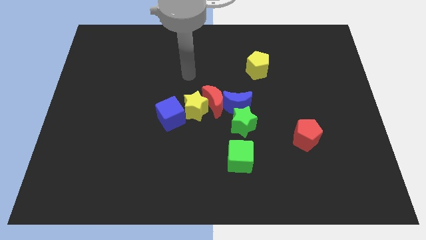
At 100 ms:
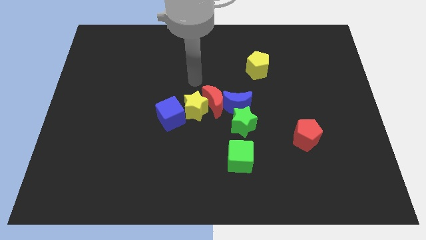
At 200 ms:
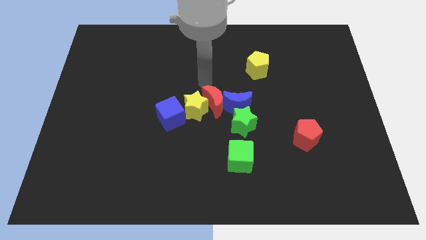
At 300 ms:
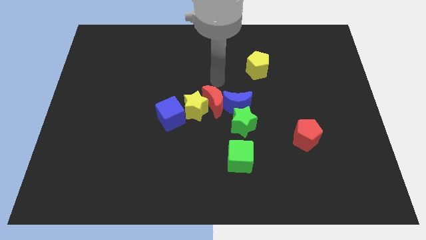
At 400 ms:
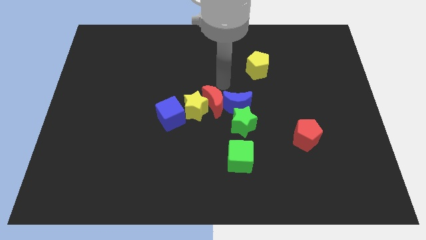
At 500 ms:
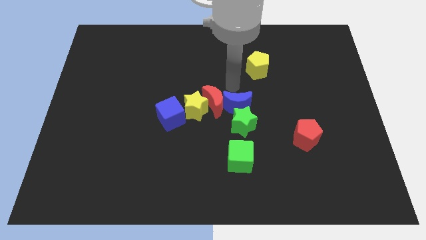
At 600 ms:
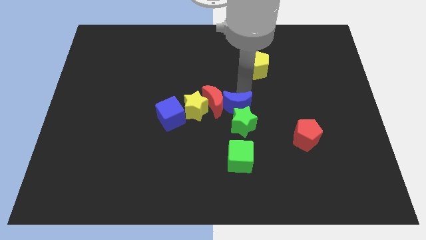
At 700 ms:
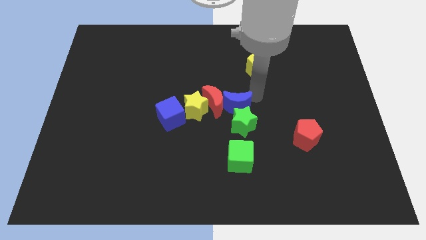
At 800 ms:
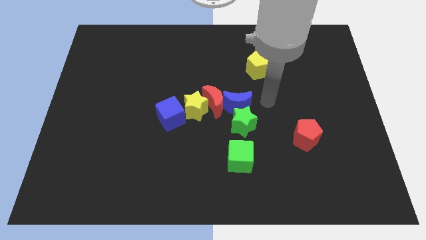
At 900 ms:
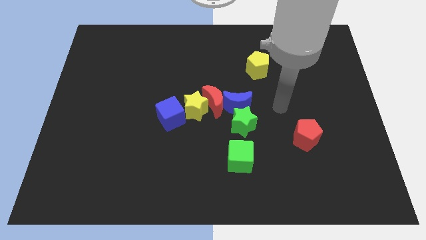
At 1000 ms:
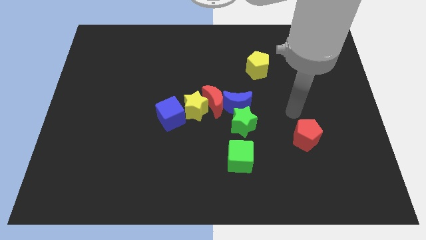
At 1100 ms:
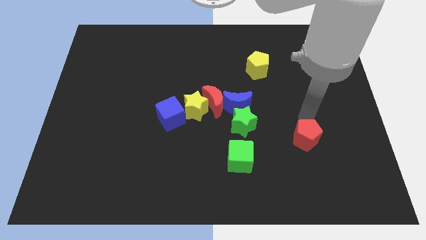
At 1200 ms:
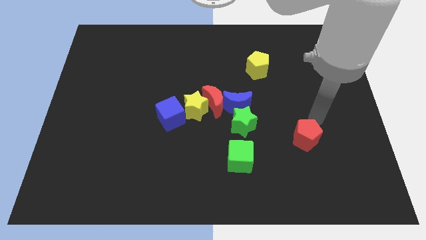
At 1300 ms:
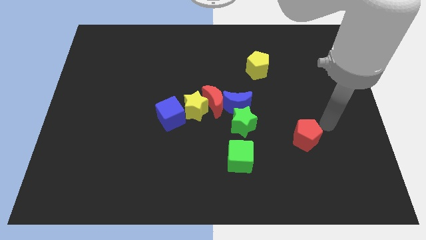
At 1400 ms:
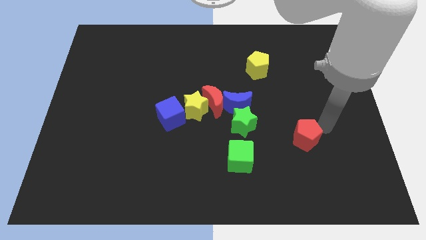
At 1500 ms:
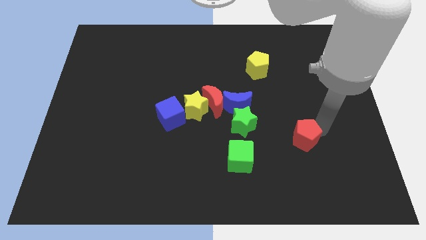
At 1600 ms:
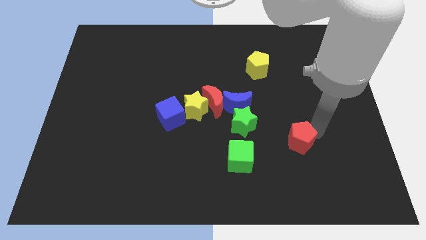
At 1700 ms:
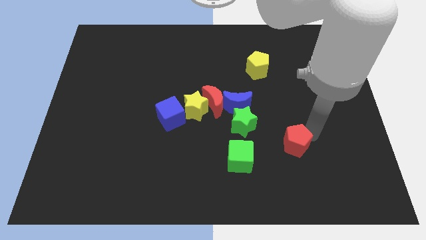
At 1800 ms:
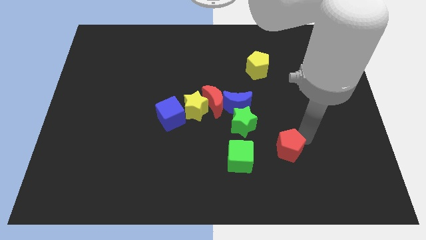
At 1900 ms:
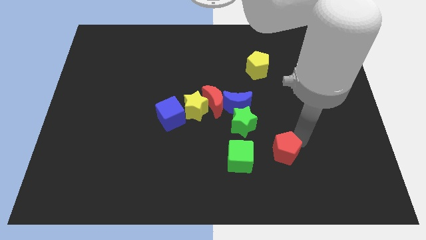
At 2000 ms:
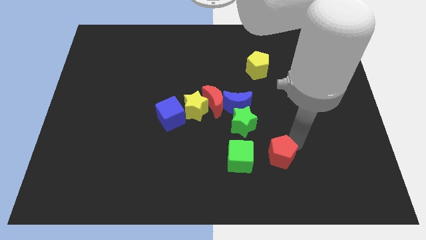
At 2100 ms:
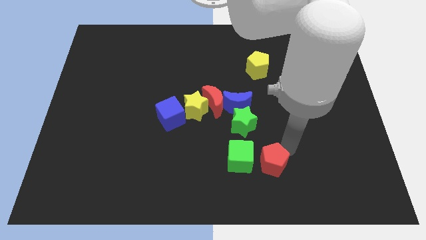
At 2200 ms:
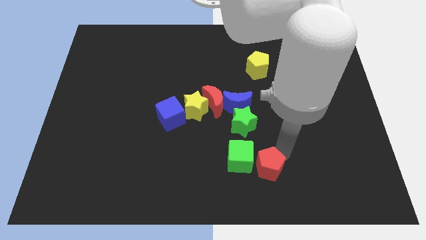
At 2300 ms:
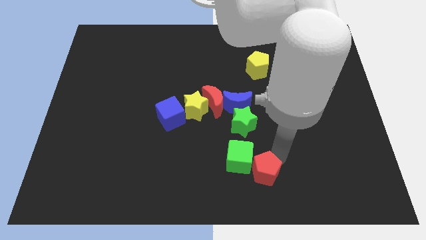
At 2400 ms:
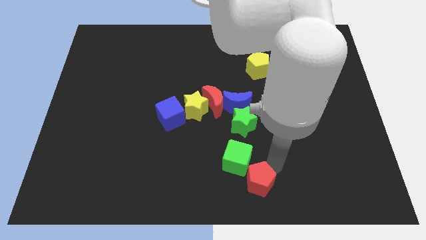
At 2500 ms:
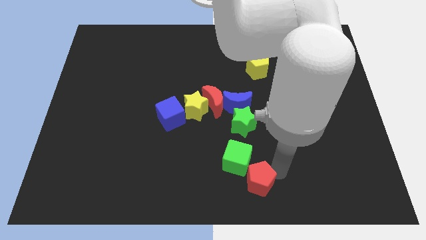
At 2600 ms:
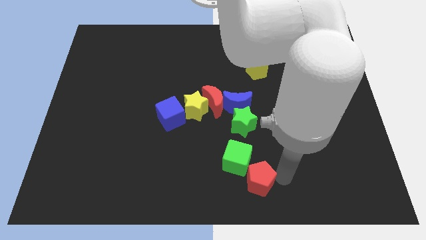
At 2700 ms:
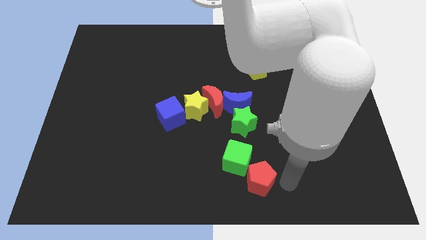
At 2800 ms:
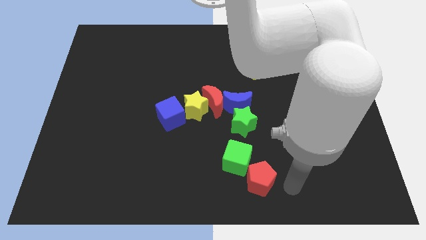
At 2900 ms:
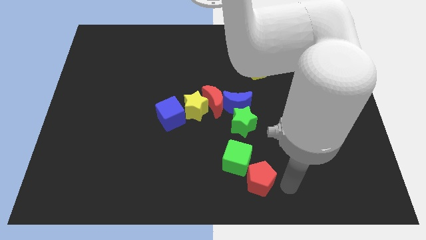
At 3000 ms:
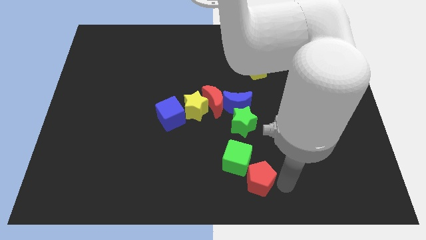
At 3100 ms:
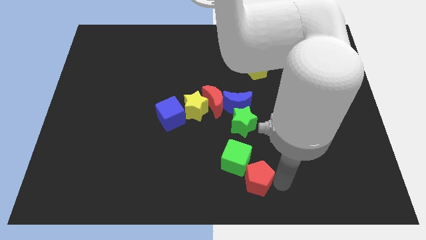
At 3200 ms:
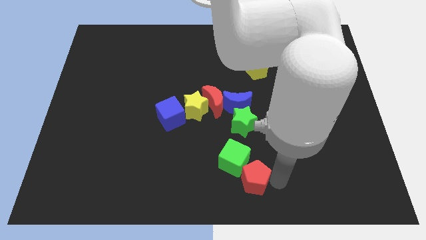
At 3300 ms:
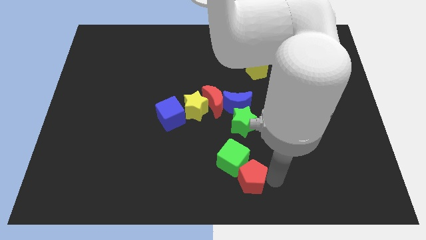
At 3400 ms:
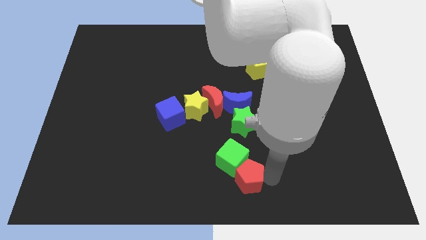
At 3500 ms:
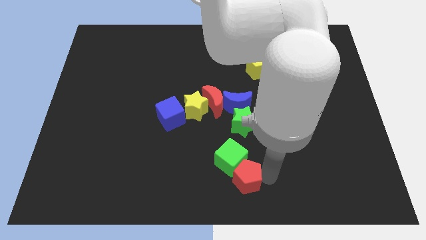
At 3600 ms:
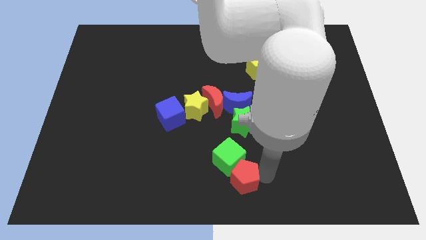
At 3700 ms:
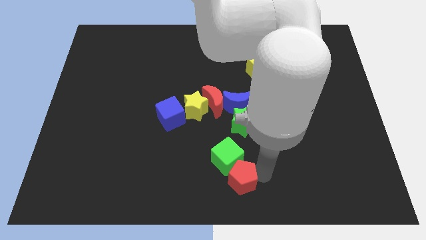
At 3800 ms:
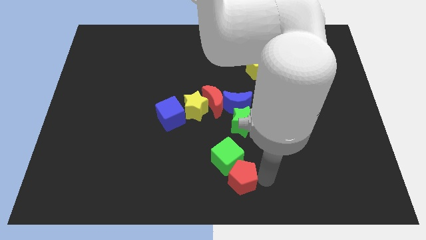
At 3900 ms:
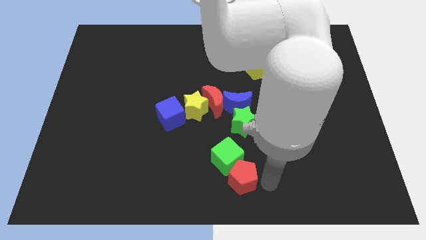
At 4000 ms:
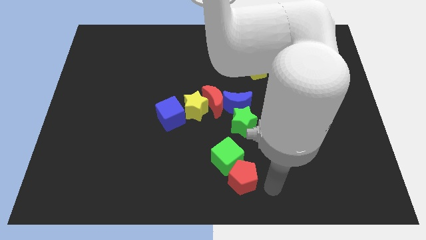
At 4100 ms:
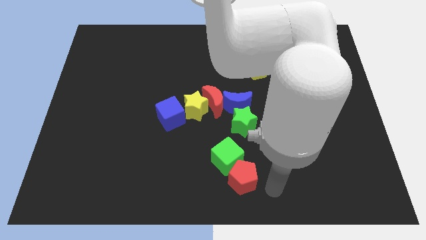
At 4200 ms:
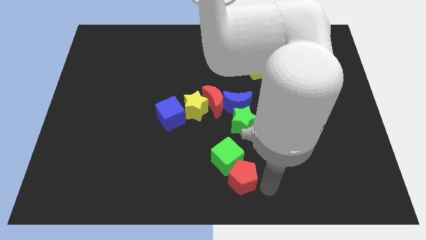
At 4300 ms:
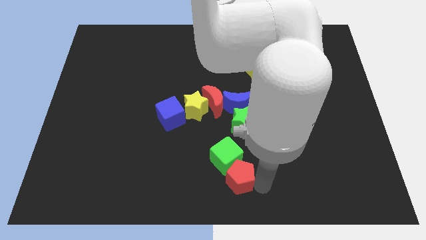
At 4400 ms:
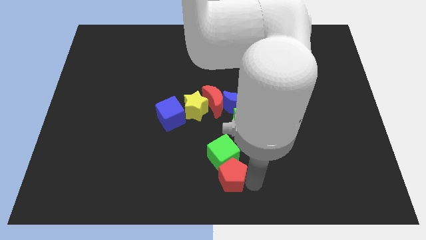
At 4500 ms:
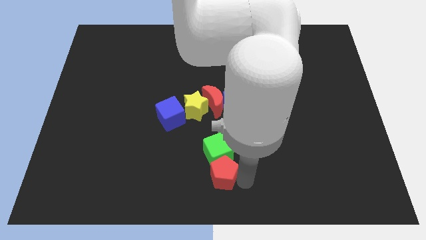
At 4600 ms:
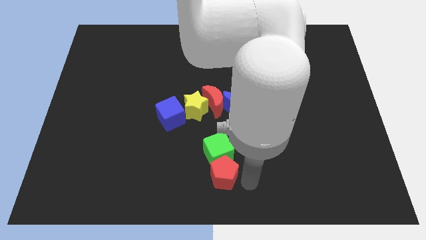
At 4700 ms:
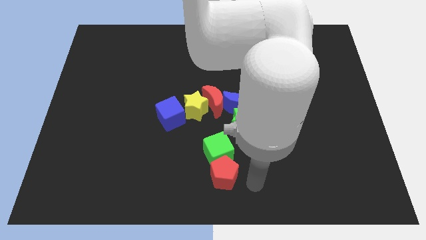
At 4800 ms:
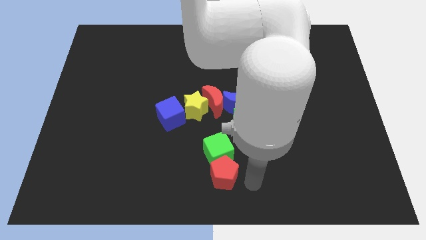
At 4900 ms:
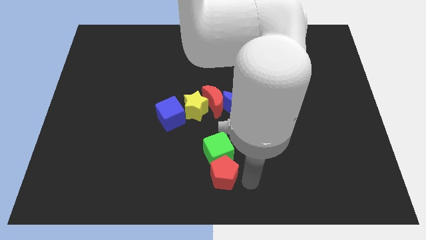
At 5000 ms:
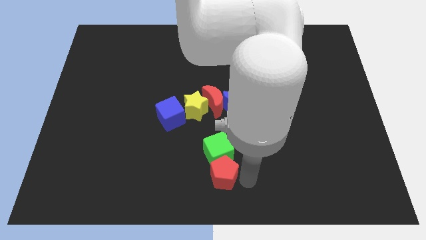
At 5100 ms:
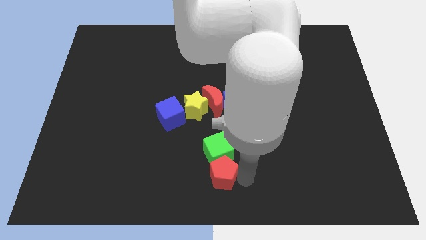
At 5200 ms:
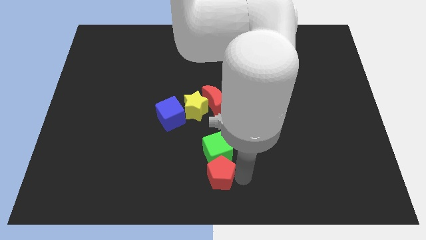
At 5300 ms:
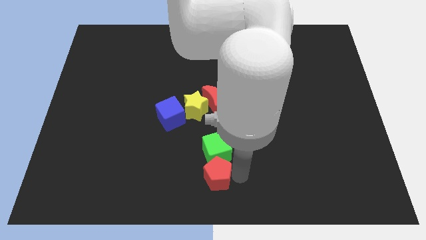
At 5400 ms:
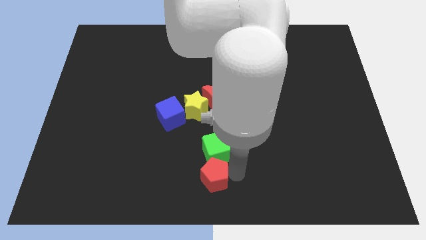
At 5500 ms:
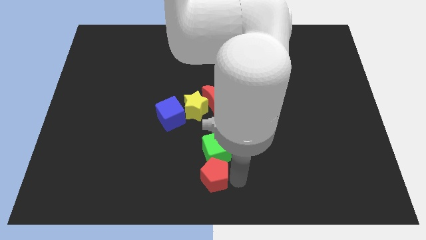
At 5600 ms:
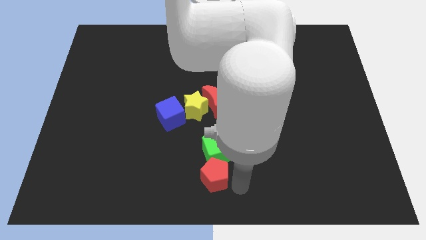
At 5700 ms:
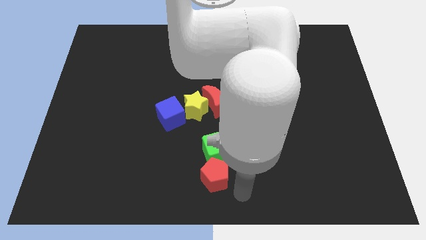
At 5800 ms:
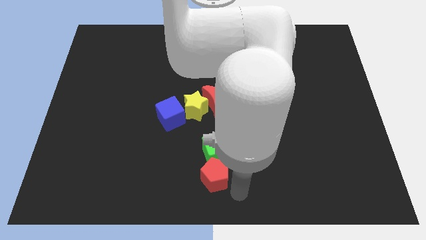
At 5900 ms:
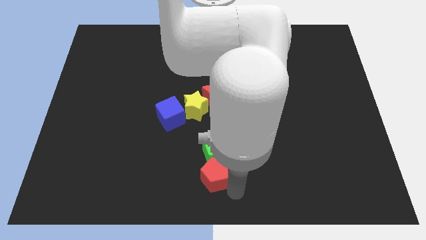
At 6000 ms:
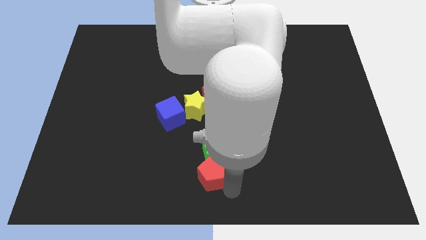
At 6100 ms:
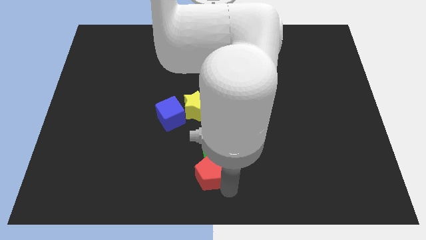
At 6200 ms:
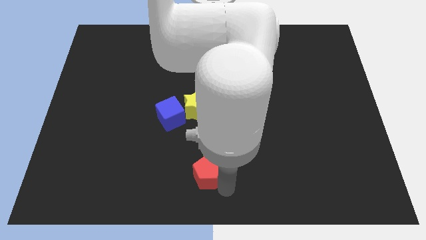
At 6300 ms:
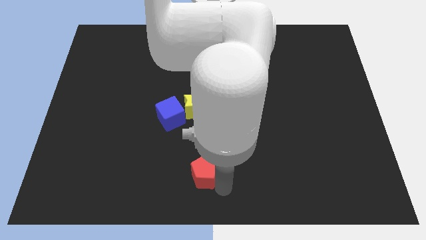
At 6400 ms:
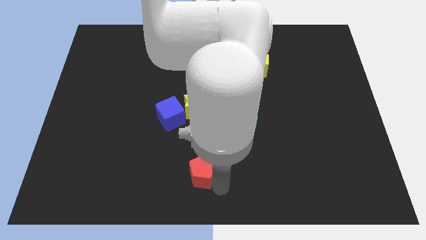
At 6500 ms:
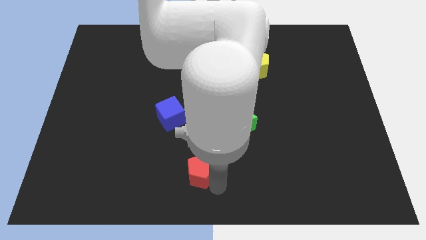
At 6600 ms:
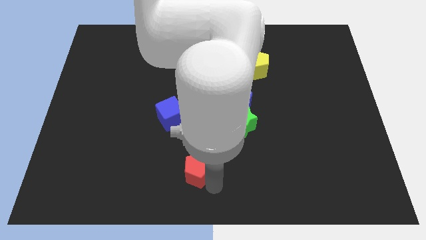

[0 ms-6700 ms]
push the red pentagon left

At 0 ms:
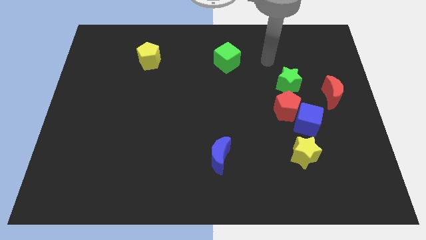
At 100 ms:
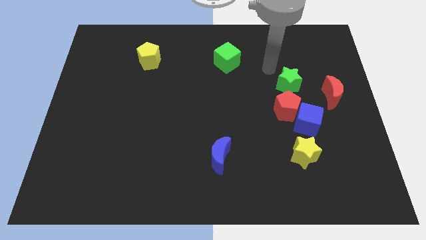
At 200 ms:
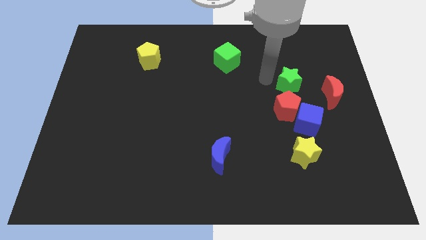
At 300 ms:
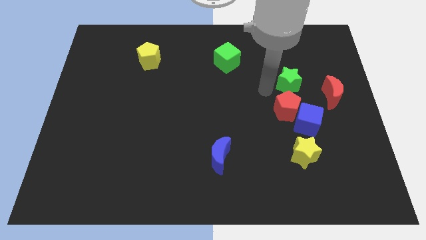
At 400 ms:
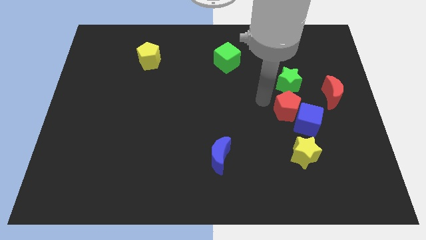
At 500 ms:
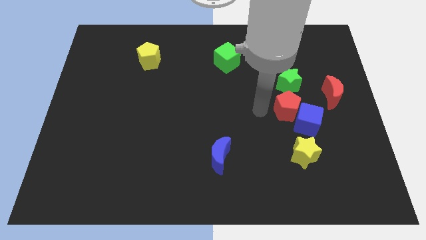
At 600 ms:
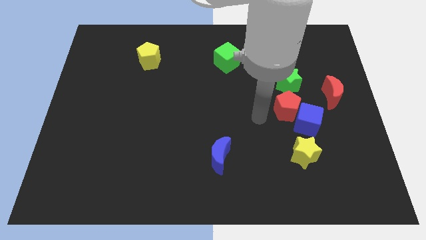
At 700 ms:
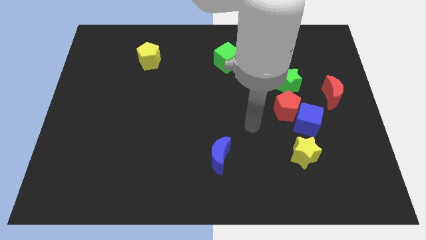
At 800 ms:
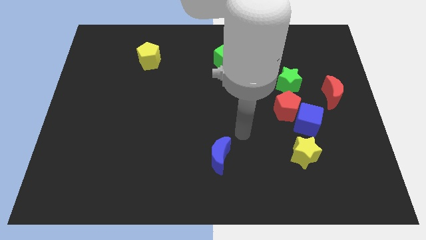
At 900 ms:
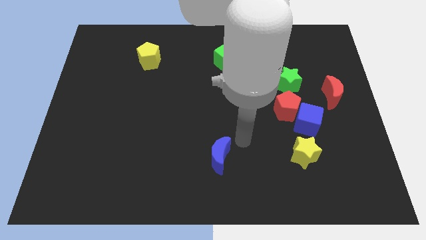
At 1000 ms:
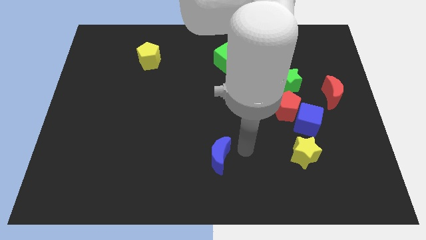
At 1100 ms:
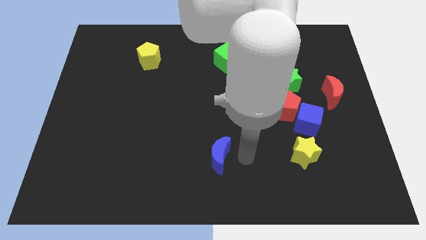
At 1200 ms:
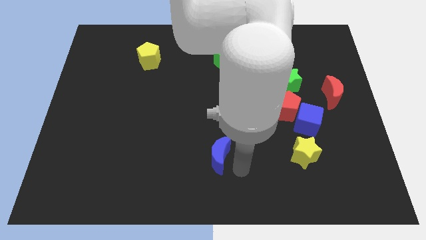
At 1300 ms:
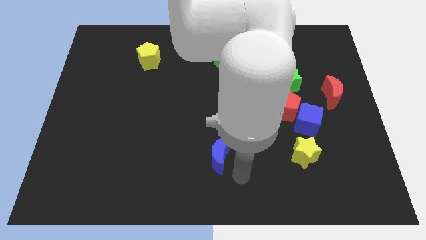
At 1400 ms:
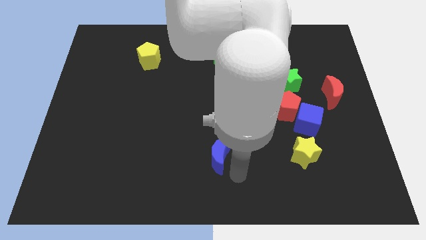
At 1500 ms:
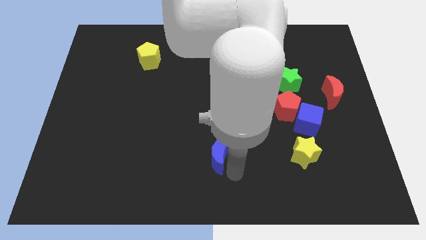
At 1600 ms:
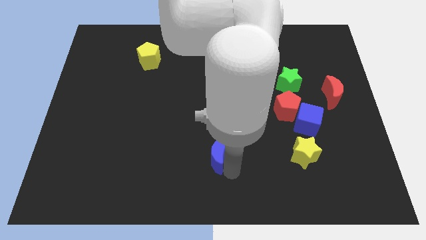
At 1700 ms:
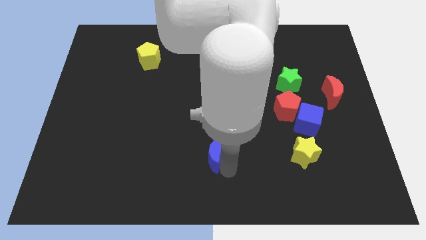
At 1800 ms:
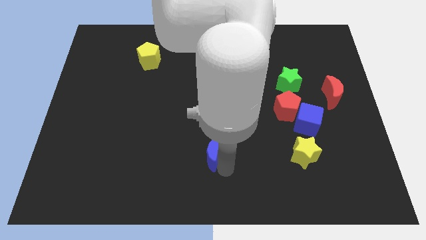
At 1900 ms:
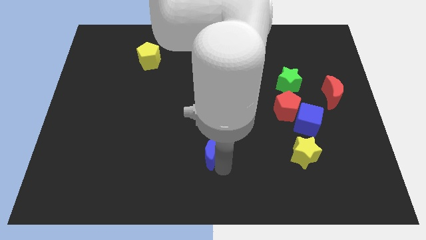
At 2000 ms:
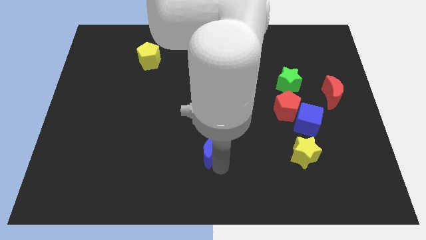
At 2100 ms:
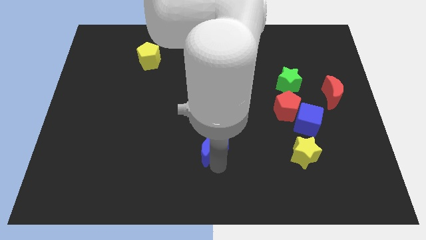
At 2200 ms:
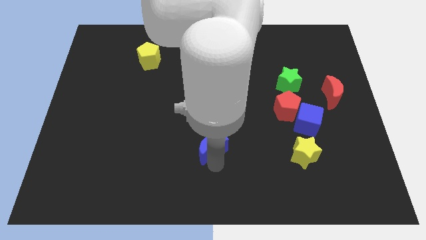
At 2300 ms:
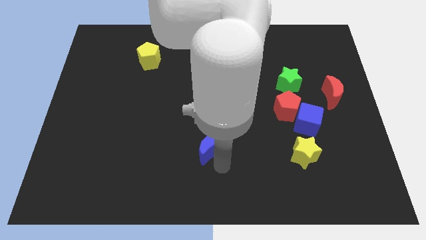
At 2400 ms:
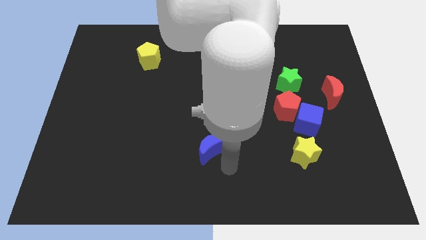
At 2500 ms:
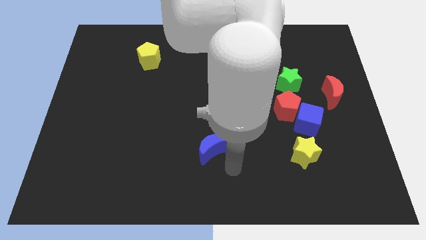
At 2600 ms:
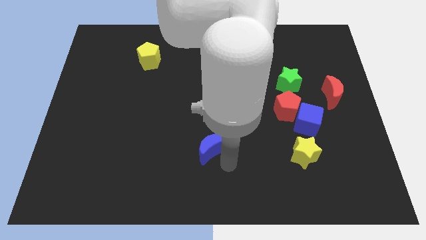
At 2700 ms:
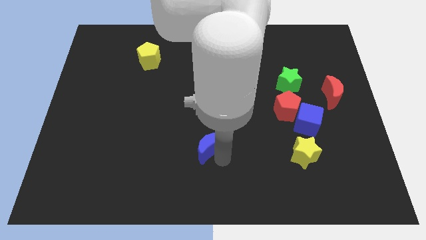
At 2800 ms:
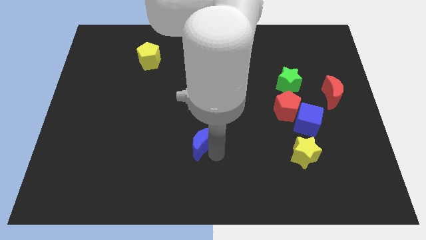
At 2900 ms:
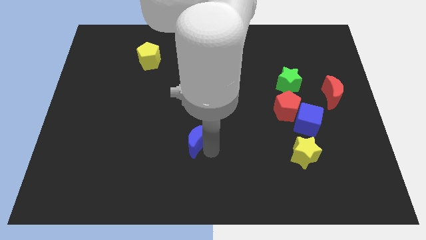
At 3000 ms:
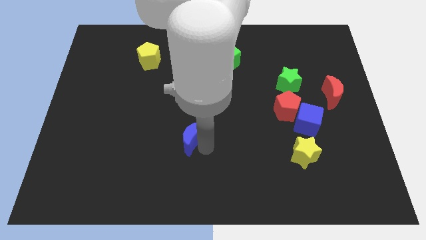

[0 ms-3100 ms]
move the blue moon up and to the left diagonally a little bit
